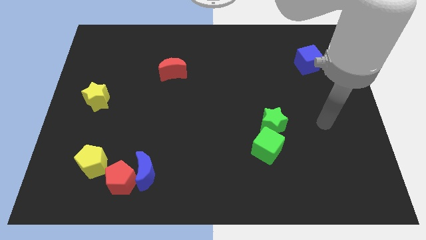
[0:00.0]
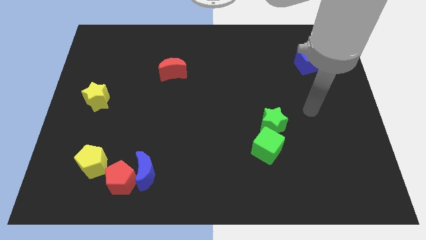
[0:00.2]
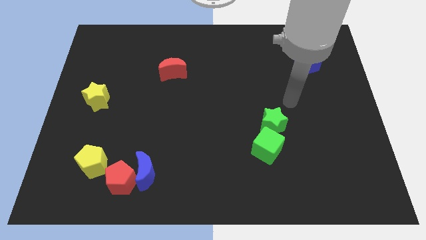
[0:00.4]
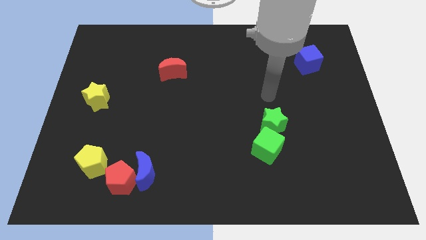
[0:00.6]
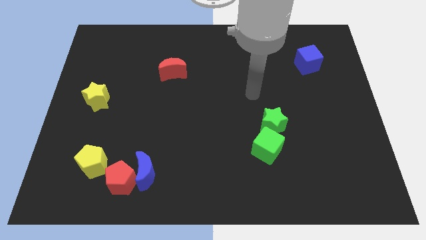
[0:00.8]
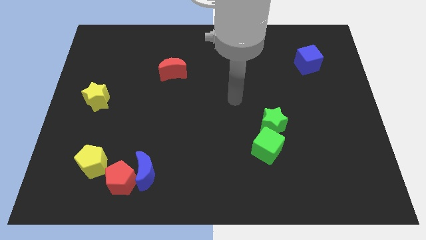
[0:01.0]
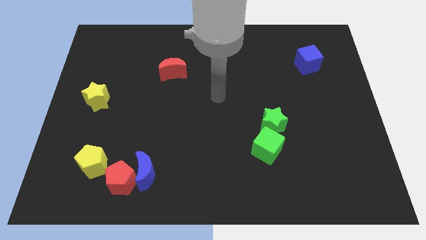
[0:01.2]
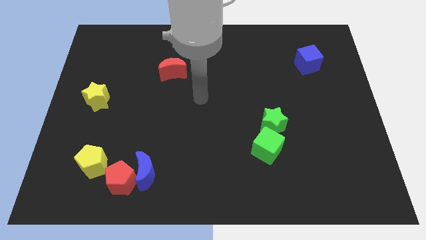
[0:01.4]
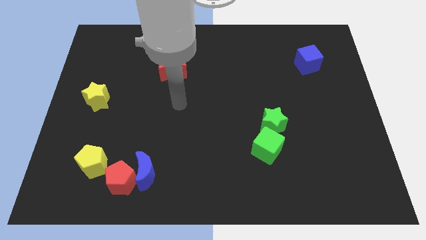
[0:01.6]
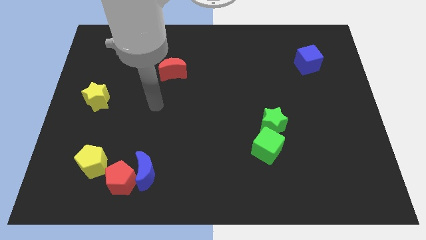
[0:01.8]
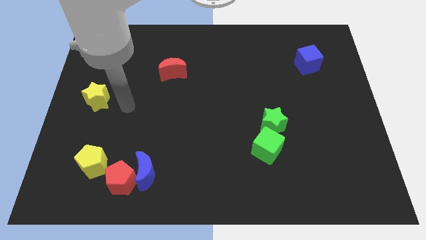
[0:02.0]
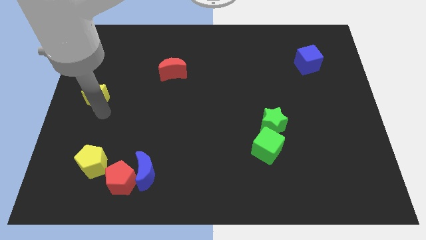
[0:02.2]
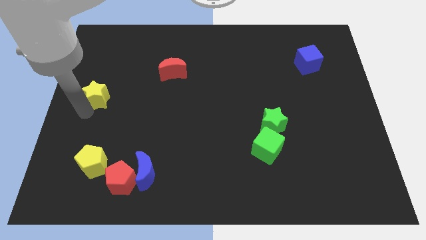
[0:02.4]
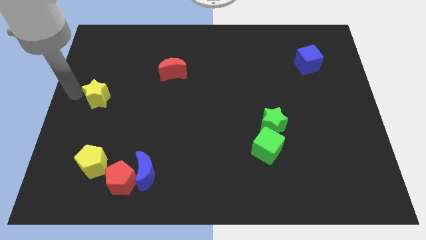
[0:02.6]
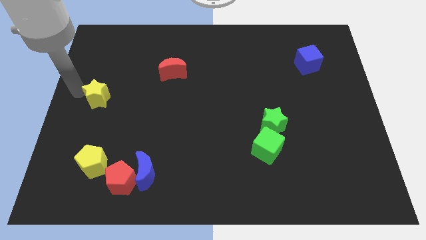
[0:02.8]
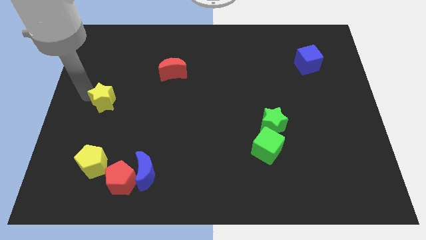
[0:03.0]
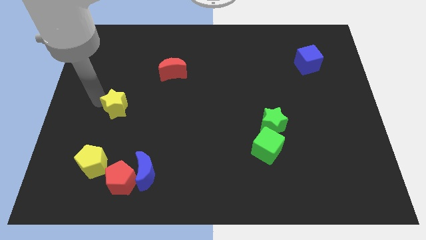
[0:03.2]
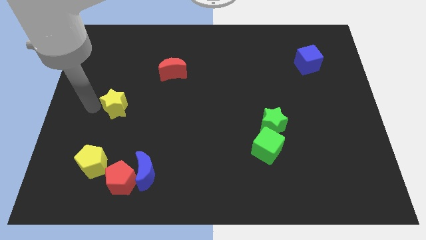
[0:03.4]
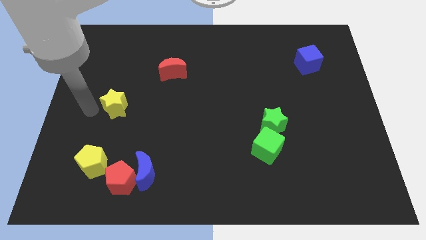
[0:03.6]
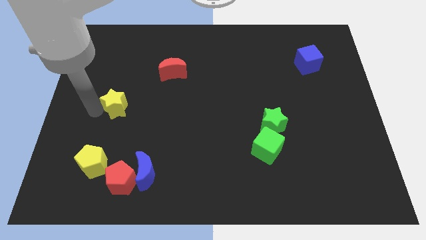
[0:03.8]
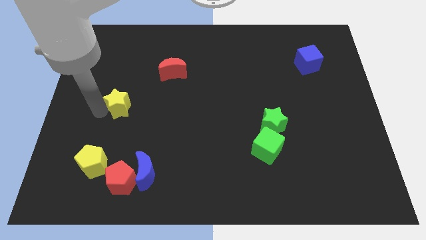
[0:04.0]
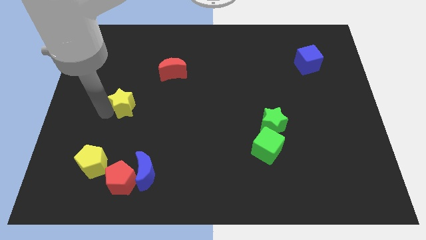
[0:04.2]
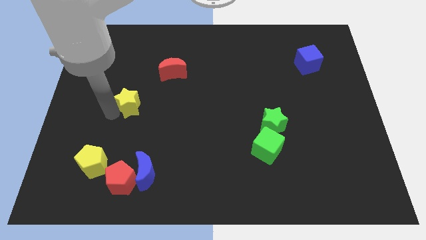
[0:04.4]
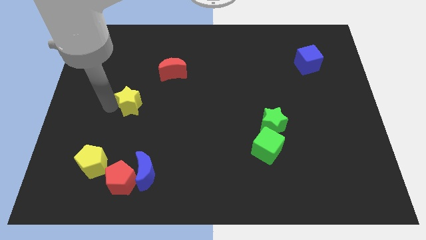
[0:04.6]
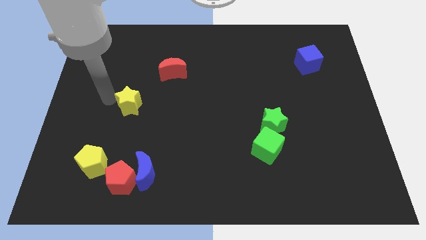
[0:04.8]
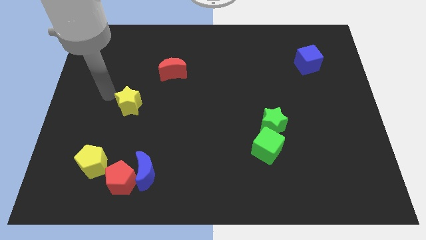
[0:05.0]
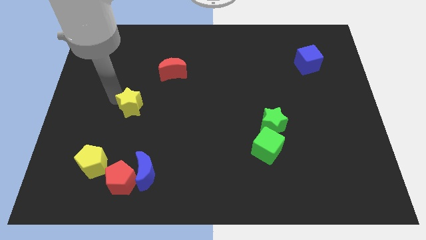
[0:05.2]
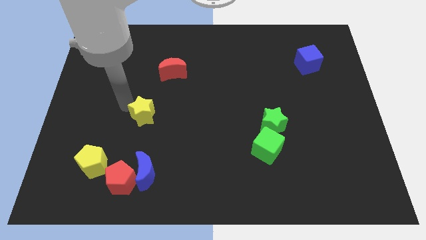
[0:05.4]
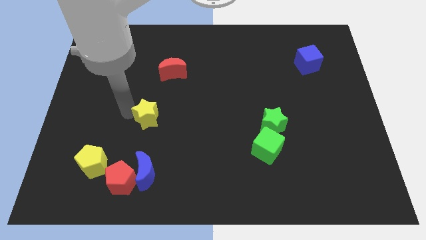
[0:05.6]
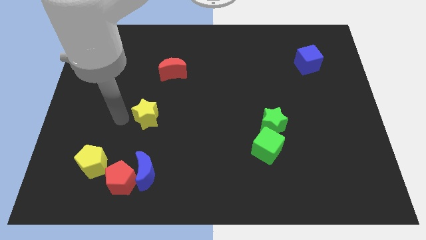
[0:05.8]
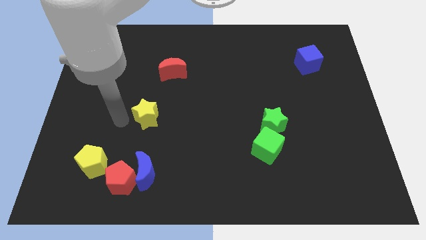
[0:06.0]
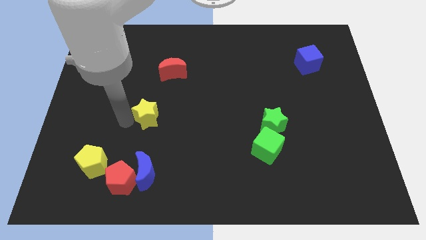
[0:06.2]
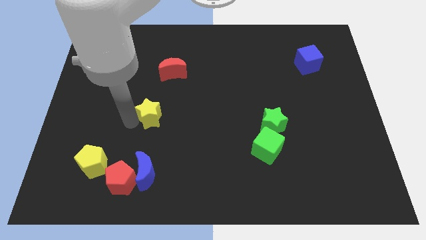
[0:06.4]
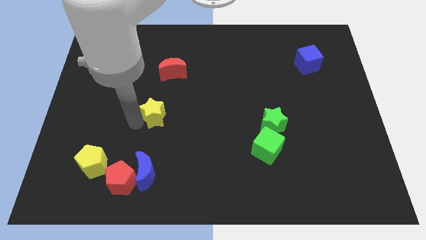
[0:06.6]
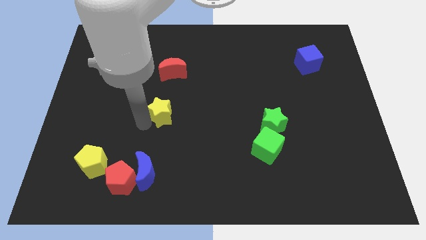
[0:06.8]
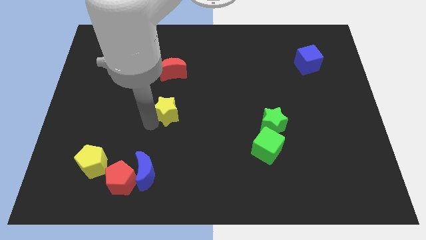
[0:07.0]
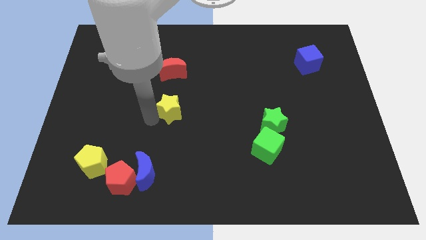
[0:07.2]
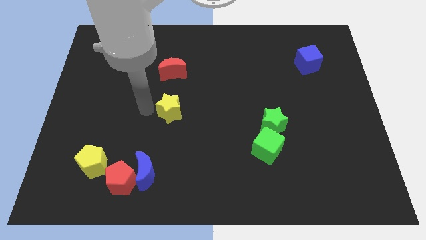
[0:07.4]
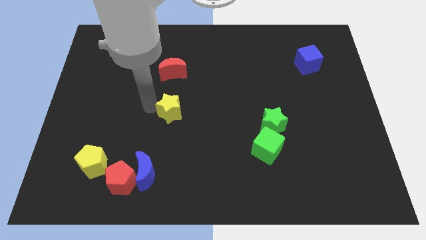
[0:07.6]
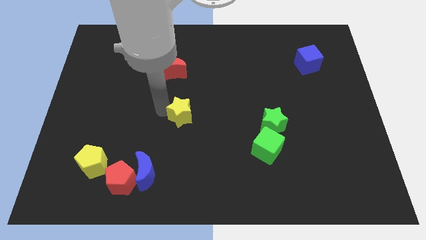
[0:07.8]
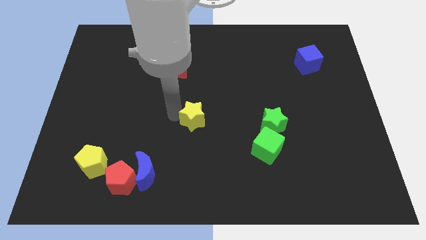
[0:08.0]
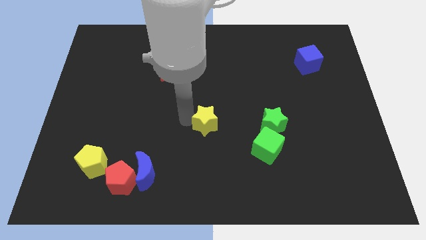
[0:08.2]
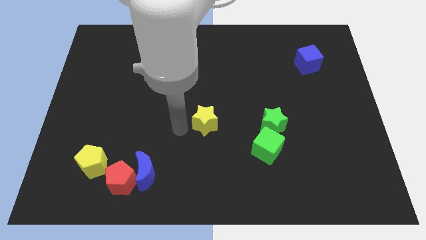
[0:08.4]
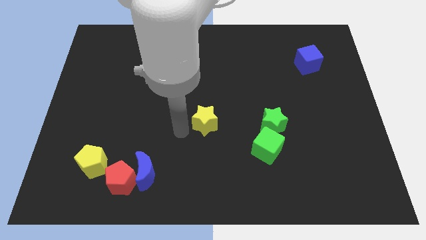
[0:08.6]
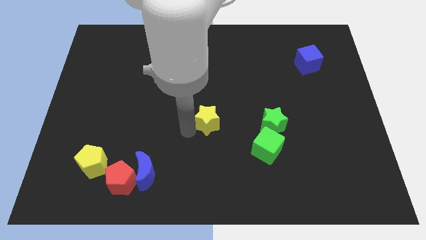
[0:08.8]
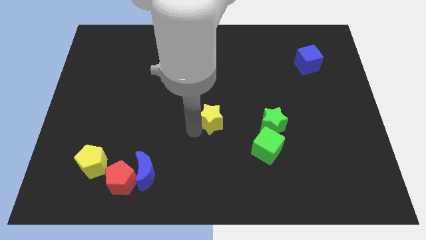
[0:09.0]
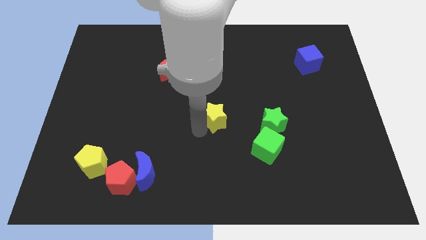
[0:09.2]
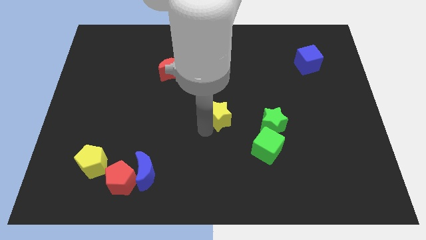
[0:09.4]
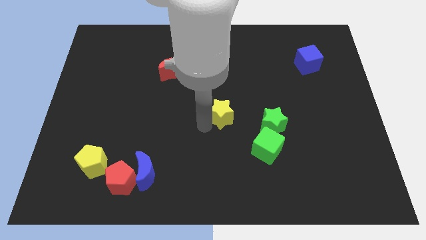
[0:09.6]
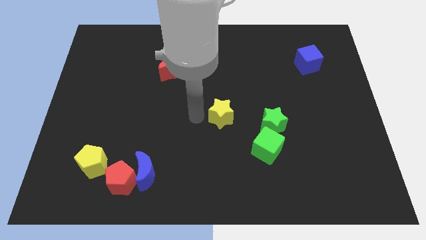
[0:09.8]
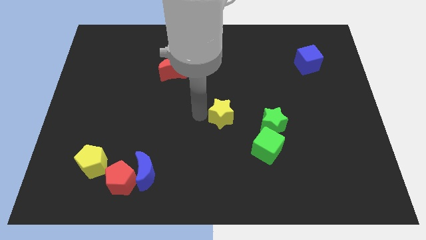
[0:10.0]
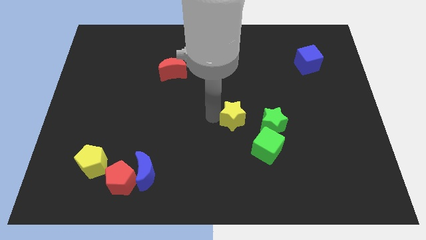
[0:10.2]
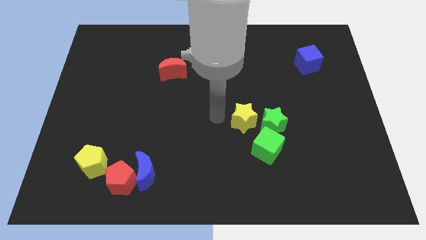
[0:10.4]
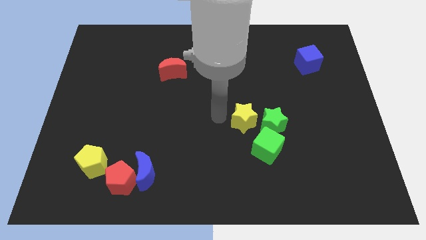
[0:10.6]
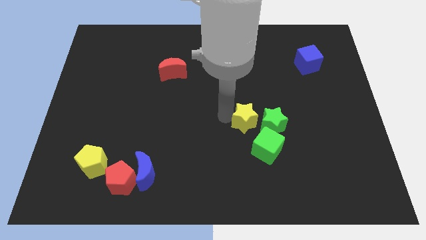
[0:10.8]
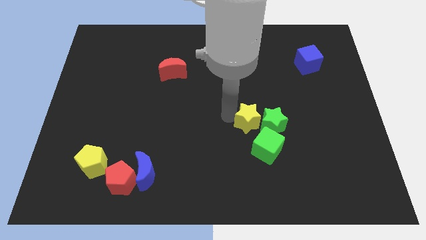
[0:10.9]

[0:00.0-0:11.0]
push the yellow star to the green star

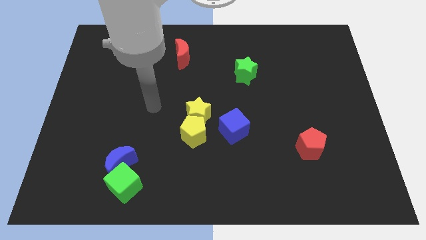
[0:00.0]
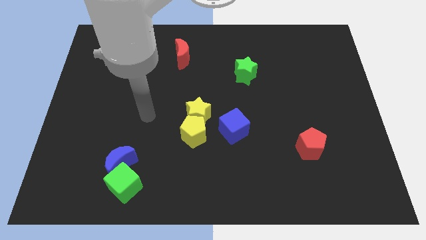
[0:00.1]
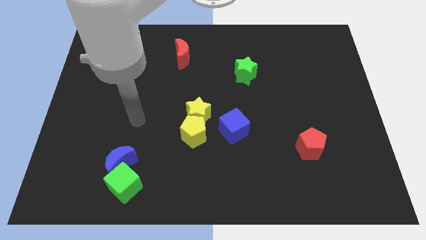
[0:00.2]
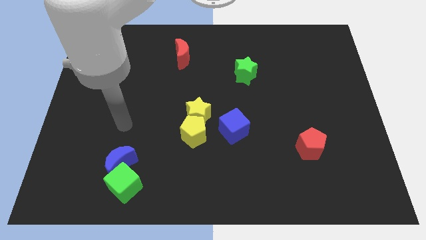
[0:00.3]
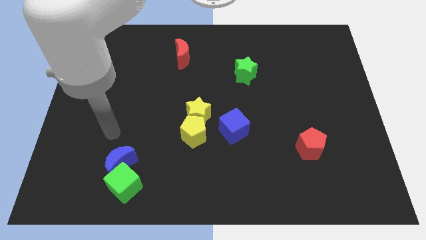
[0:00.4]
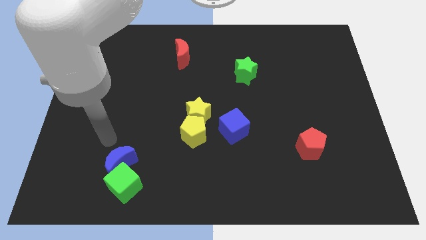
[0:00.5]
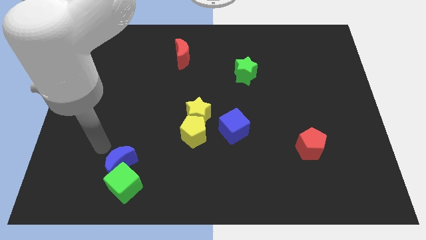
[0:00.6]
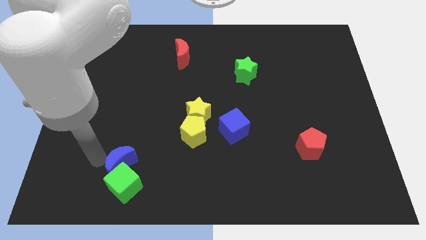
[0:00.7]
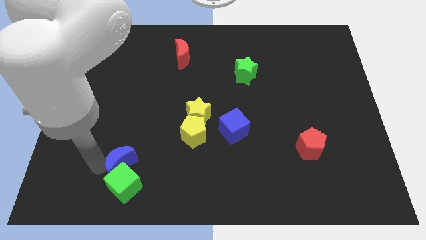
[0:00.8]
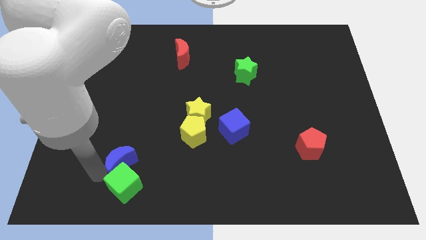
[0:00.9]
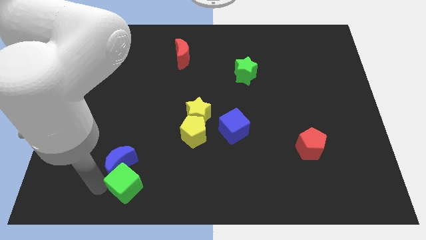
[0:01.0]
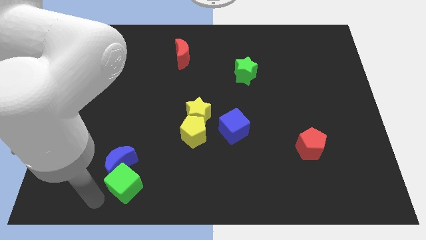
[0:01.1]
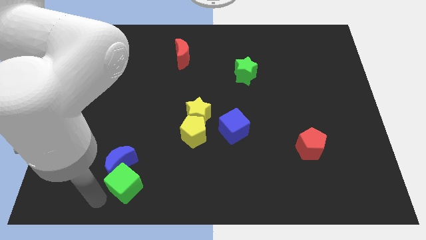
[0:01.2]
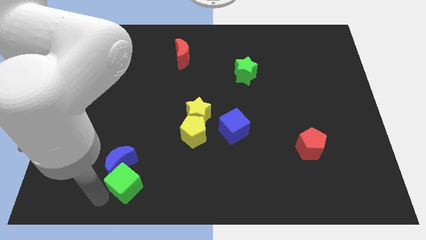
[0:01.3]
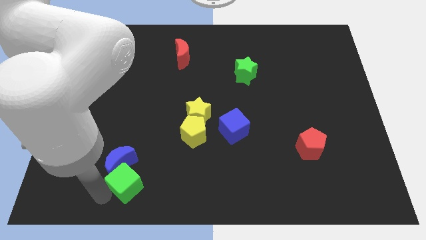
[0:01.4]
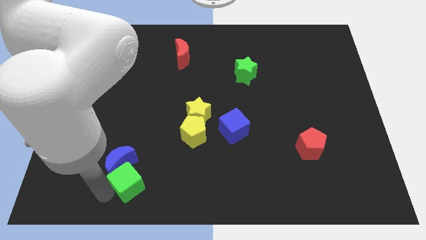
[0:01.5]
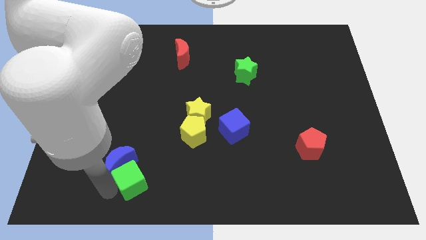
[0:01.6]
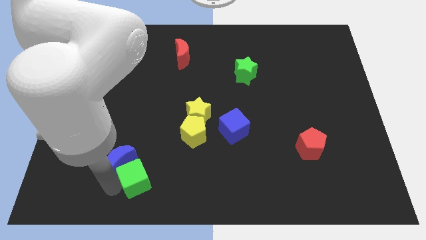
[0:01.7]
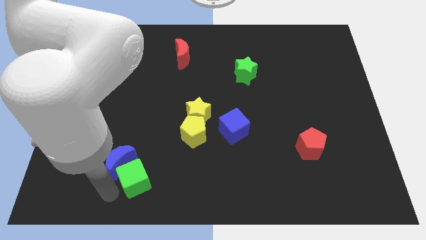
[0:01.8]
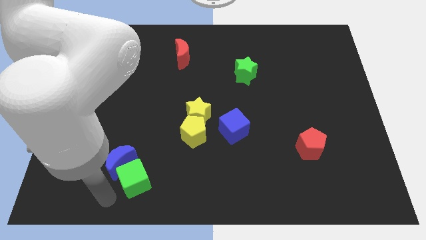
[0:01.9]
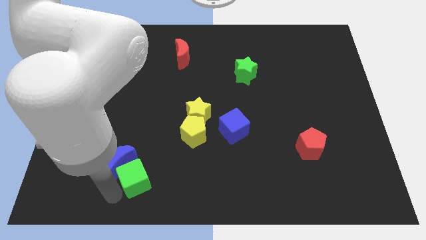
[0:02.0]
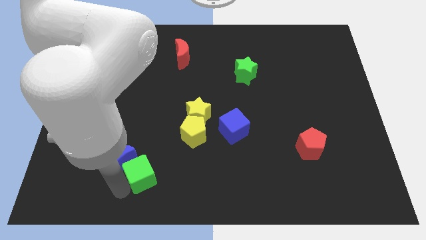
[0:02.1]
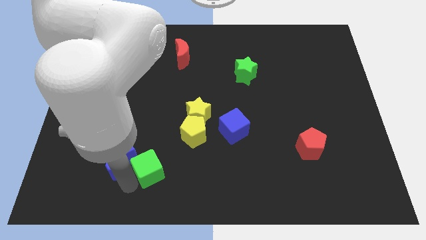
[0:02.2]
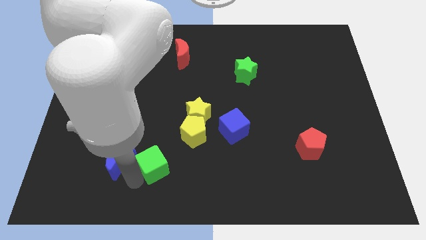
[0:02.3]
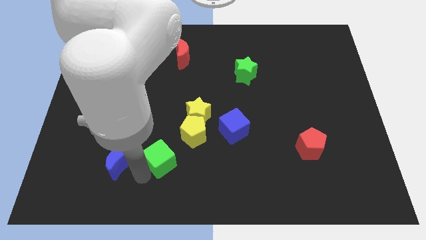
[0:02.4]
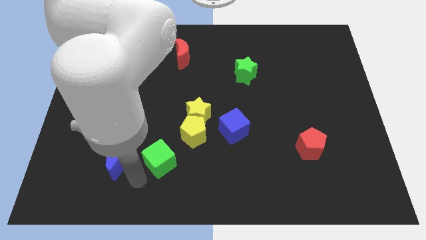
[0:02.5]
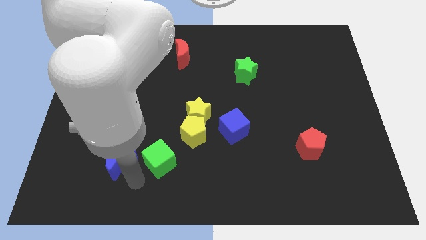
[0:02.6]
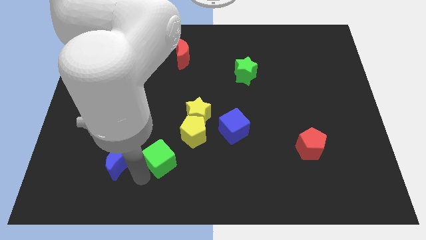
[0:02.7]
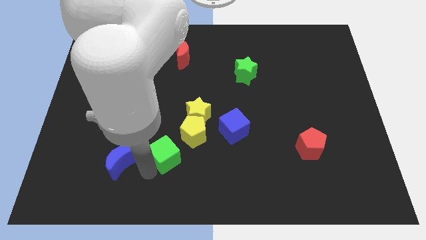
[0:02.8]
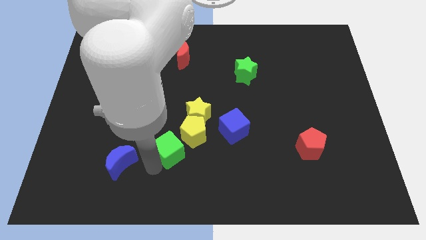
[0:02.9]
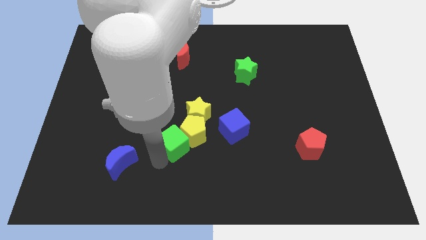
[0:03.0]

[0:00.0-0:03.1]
push the green cube towards the yellow pentagon
